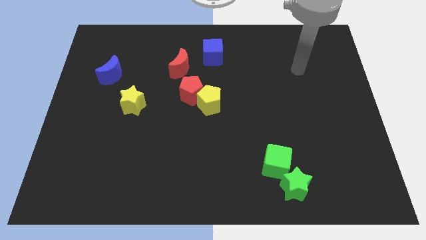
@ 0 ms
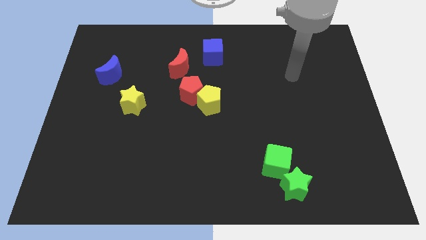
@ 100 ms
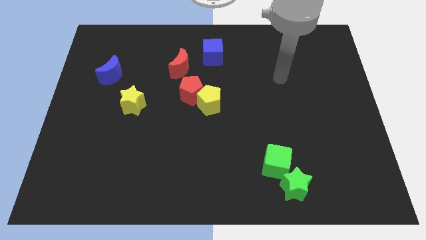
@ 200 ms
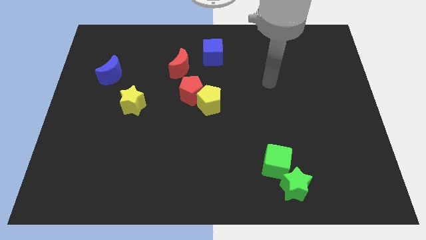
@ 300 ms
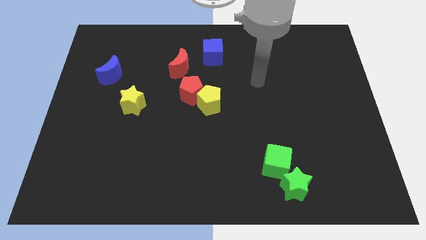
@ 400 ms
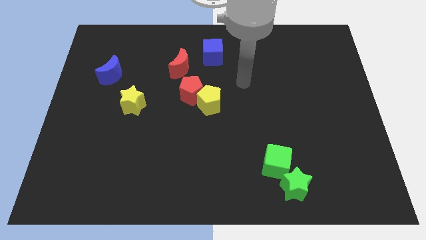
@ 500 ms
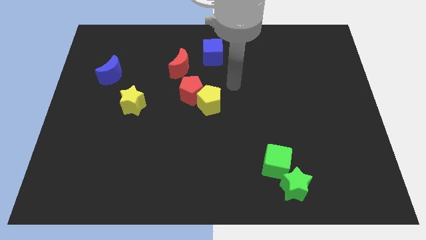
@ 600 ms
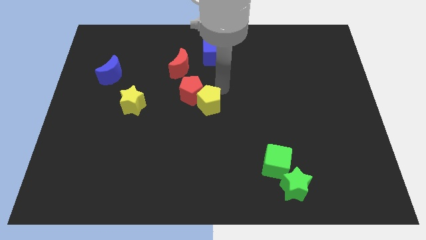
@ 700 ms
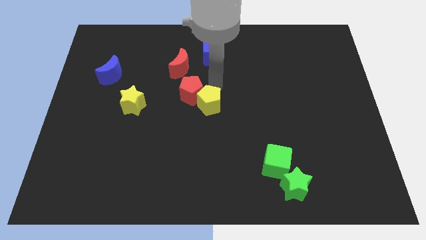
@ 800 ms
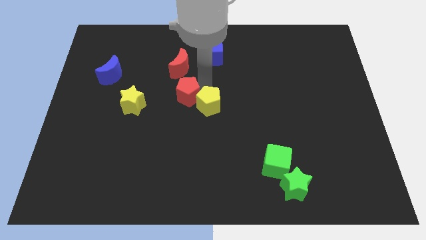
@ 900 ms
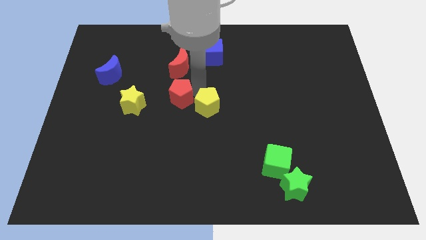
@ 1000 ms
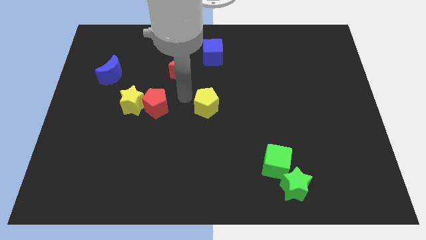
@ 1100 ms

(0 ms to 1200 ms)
pull the yellow pentagon apart from the red pentagon

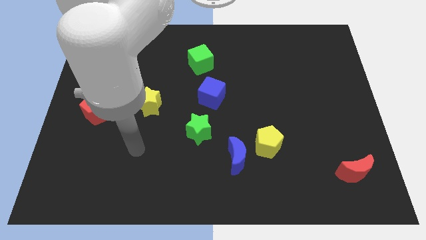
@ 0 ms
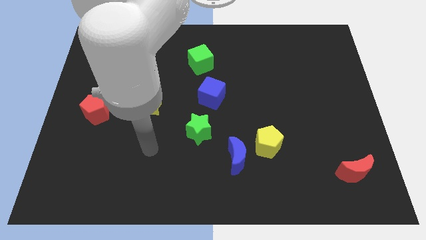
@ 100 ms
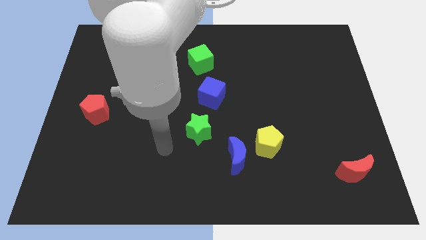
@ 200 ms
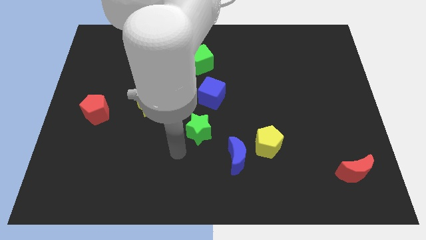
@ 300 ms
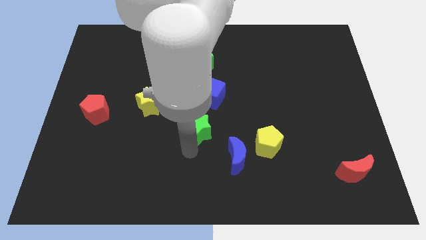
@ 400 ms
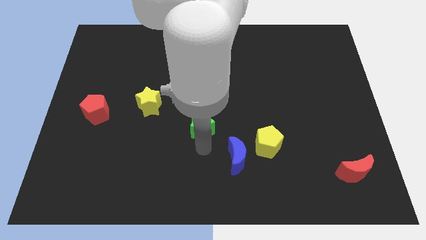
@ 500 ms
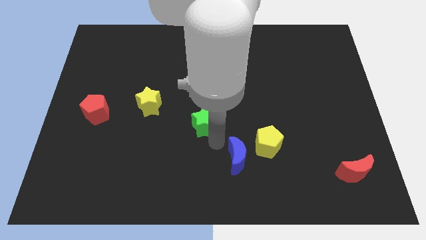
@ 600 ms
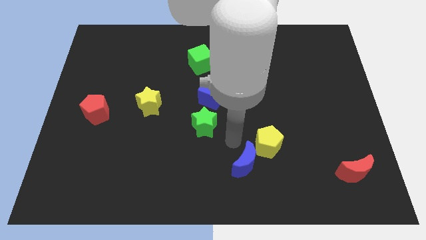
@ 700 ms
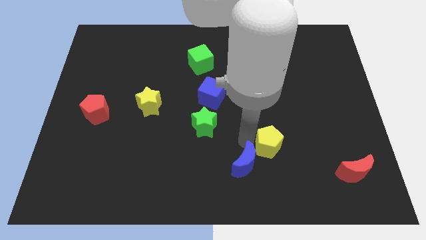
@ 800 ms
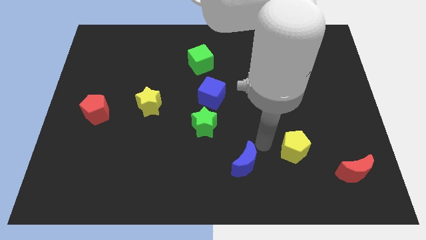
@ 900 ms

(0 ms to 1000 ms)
move the blue moon away from the yellow pentagon

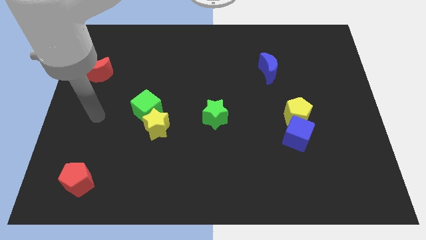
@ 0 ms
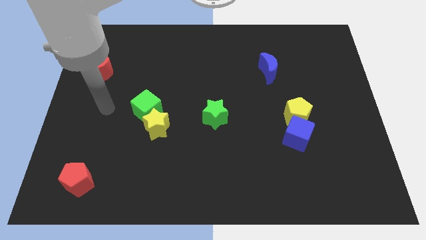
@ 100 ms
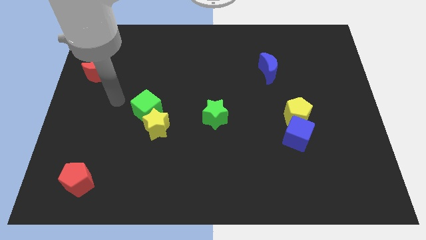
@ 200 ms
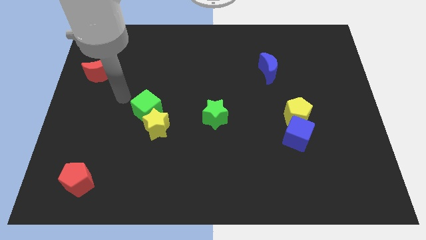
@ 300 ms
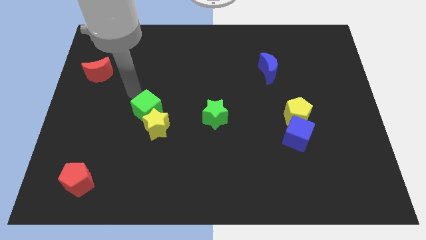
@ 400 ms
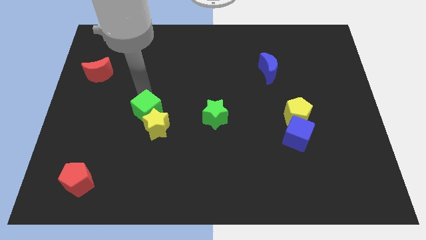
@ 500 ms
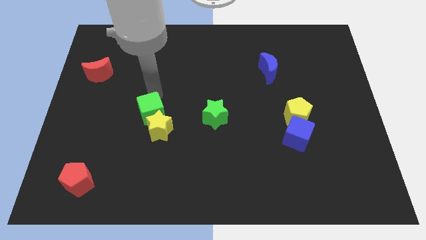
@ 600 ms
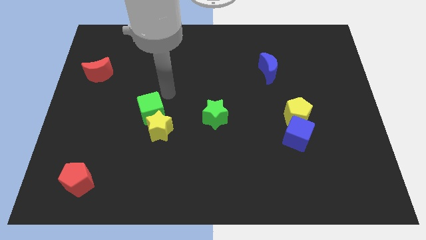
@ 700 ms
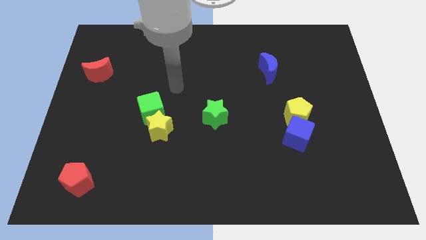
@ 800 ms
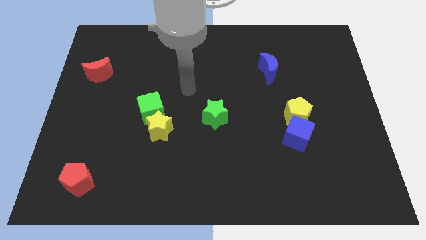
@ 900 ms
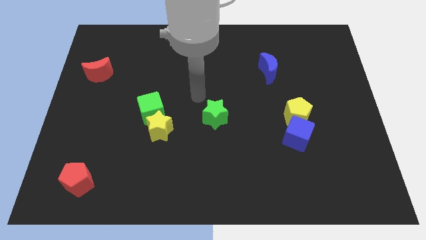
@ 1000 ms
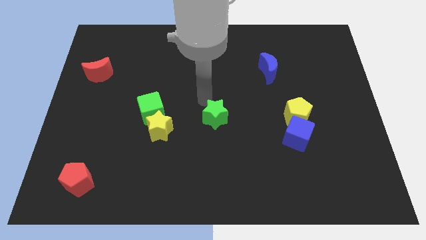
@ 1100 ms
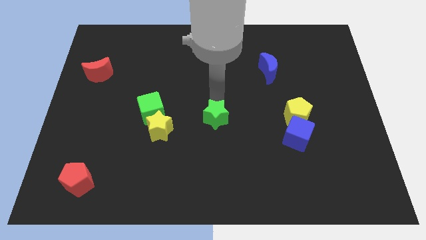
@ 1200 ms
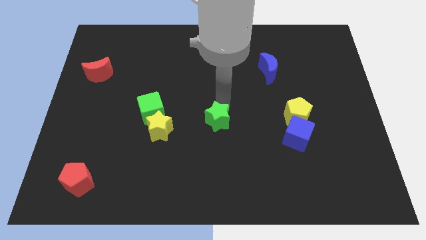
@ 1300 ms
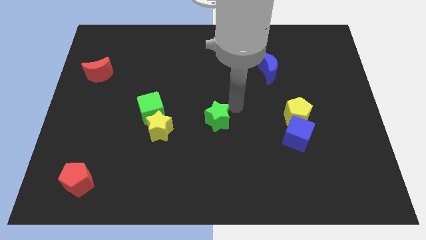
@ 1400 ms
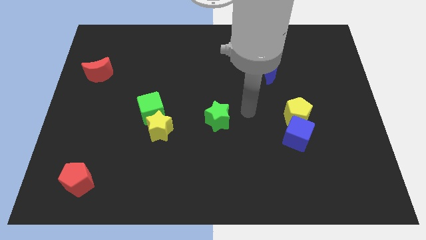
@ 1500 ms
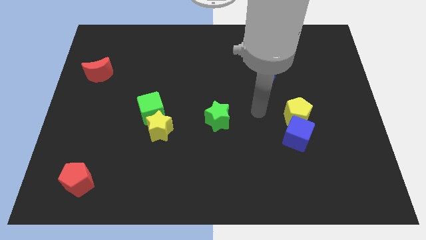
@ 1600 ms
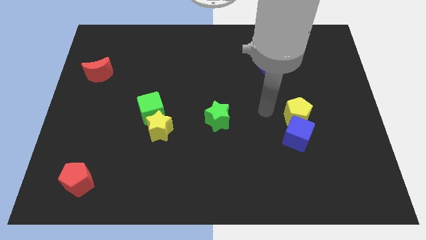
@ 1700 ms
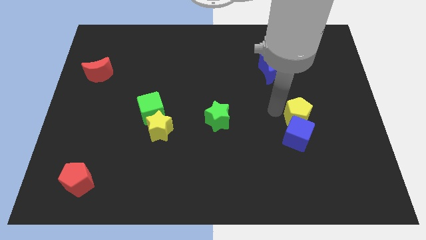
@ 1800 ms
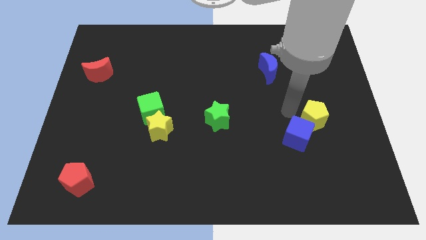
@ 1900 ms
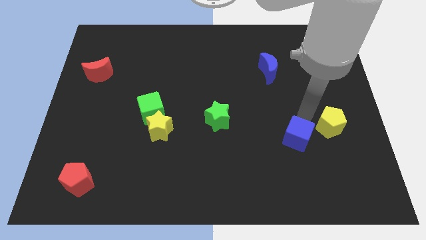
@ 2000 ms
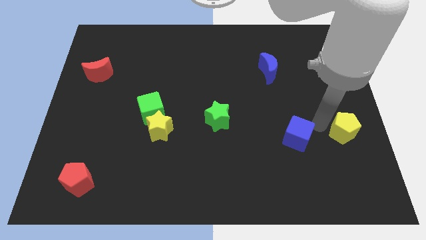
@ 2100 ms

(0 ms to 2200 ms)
pull the blue cube apart from the yellow pentagon

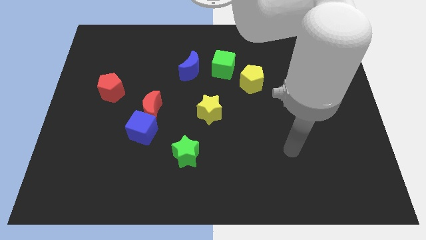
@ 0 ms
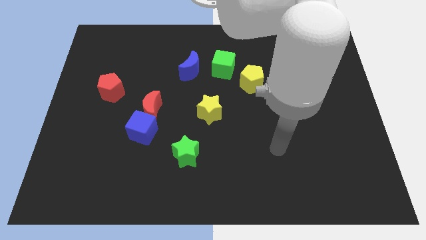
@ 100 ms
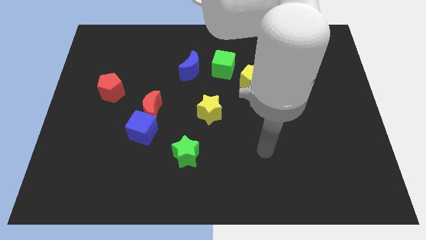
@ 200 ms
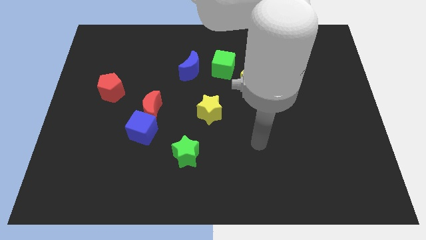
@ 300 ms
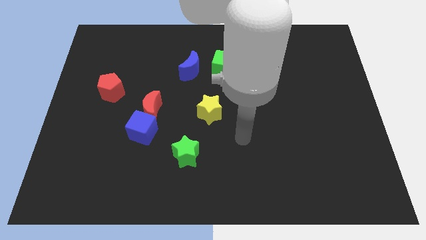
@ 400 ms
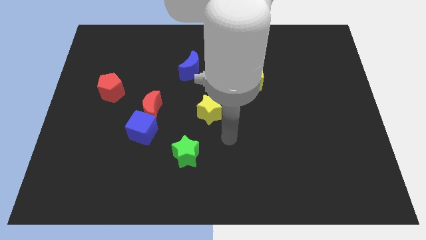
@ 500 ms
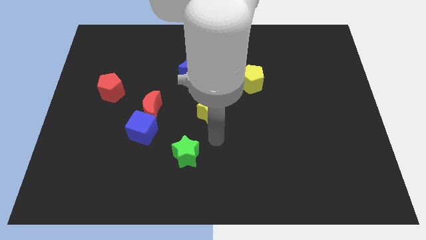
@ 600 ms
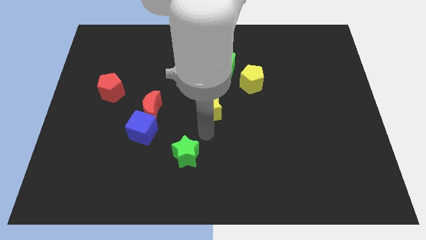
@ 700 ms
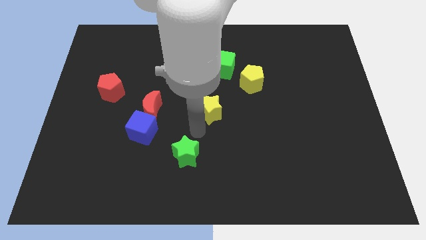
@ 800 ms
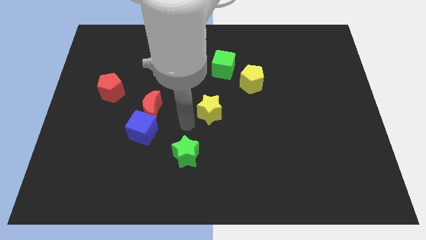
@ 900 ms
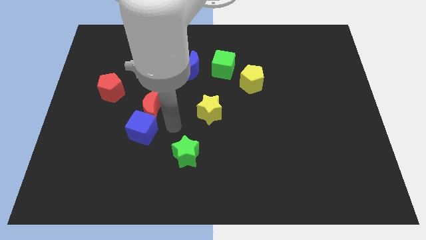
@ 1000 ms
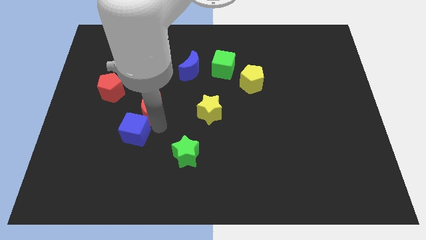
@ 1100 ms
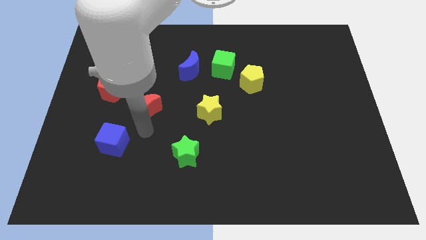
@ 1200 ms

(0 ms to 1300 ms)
pull the red moon apart from the blue cube

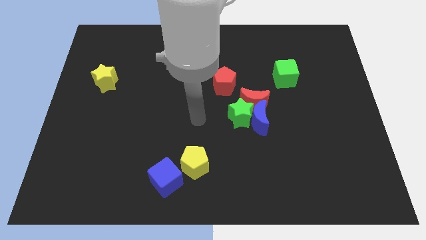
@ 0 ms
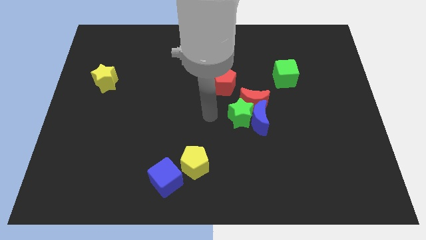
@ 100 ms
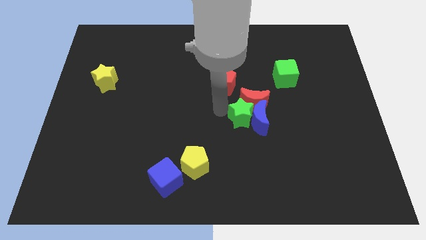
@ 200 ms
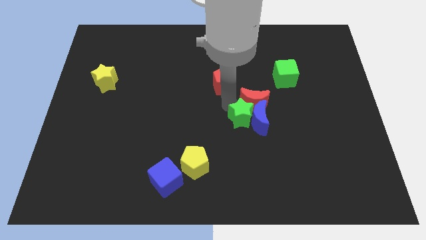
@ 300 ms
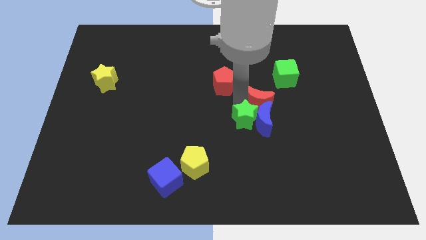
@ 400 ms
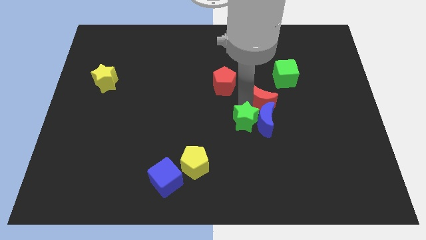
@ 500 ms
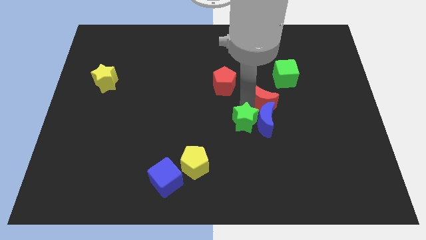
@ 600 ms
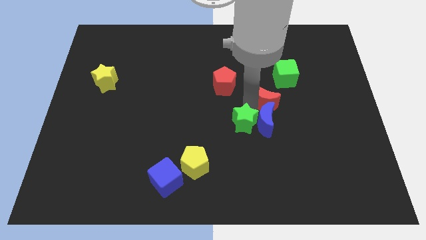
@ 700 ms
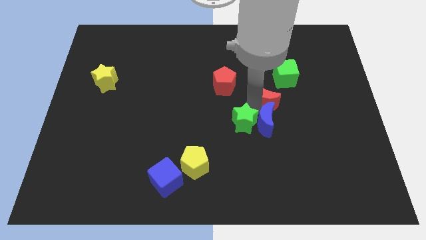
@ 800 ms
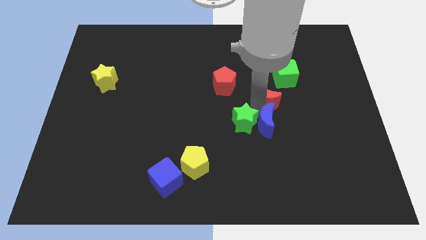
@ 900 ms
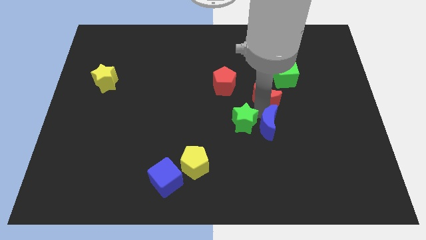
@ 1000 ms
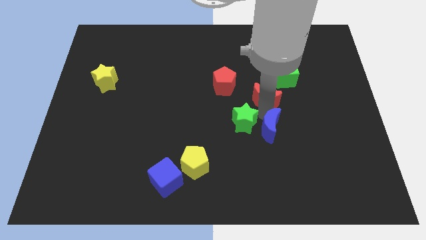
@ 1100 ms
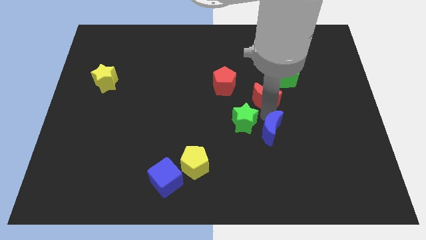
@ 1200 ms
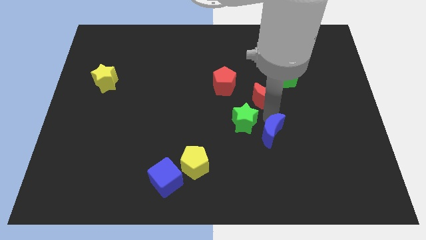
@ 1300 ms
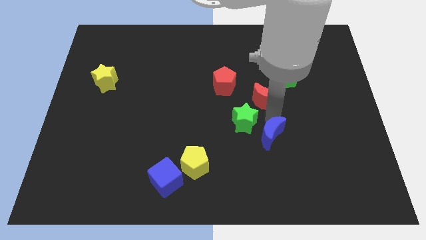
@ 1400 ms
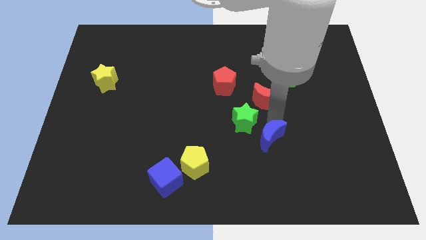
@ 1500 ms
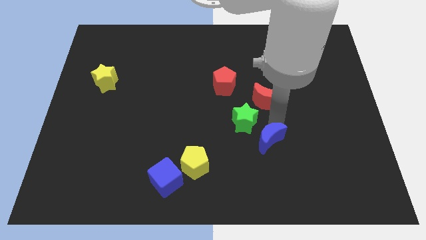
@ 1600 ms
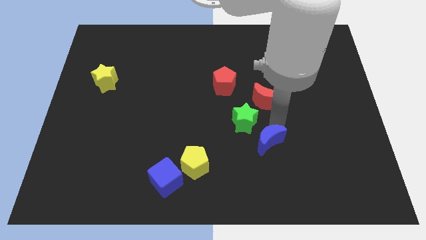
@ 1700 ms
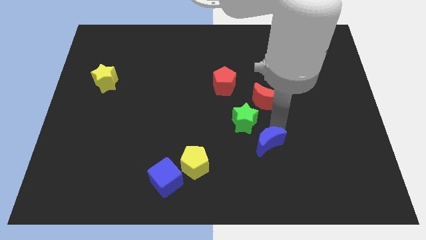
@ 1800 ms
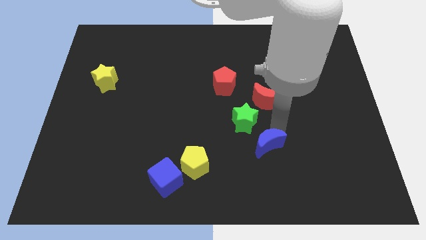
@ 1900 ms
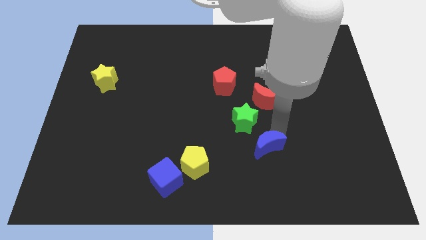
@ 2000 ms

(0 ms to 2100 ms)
move the blue moon away from the green star and red moon

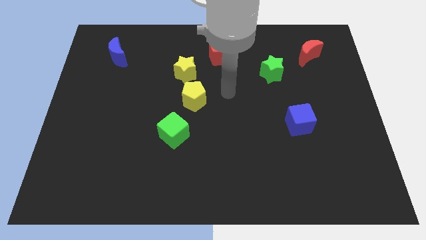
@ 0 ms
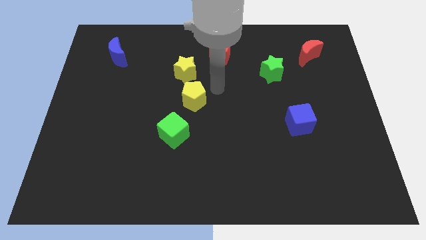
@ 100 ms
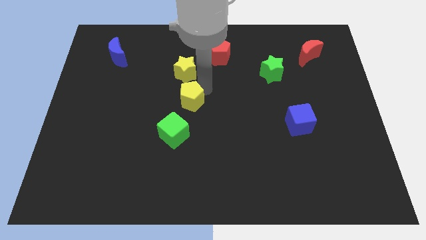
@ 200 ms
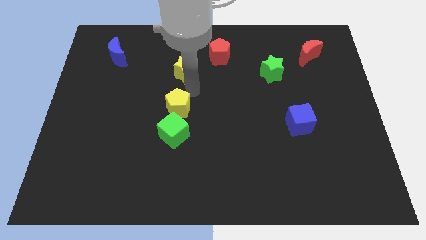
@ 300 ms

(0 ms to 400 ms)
separate the yellow star from the yellow pentagon

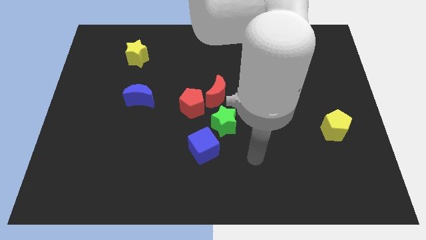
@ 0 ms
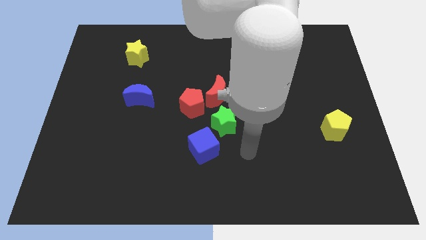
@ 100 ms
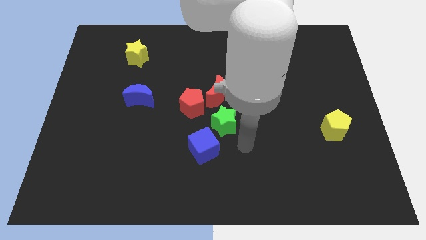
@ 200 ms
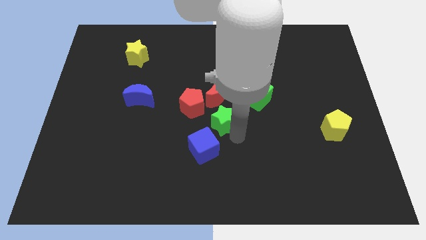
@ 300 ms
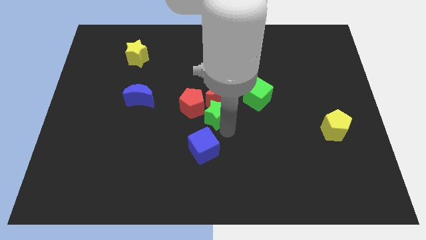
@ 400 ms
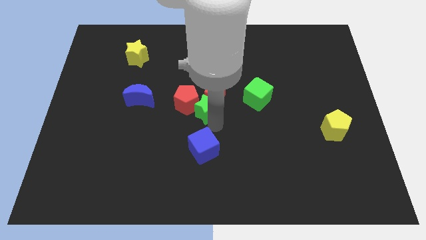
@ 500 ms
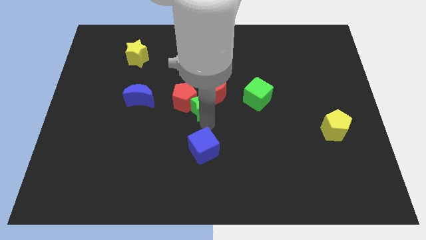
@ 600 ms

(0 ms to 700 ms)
pull the blue cube apart from the green star

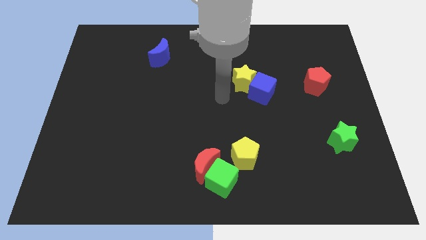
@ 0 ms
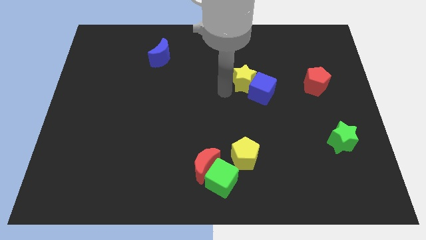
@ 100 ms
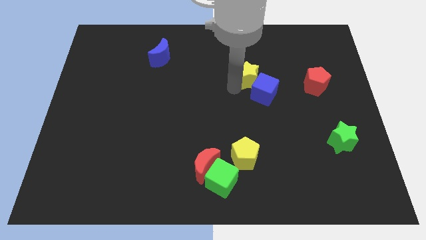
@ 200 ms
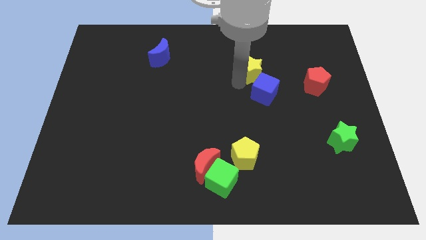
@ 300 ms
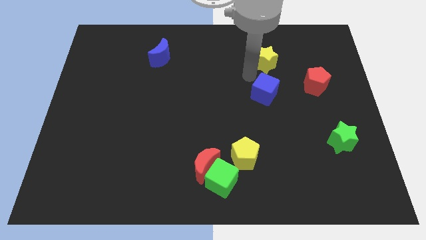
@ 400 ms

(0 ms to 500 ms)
move the blue cube away from the yellow star
